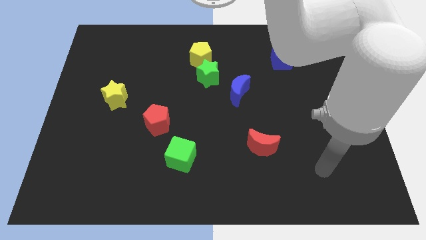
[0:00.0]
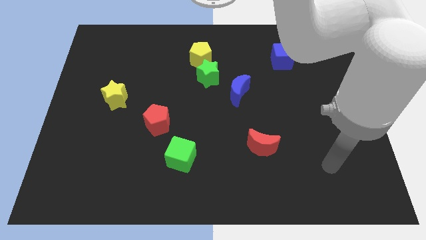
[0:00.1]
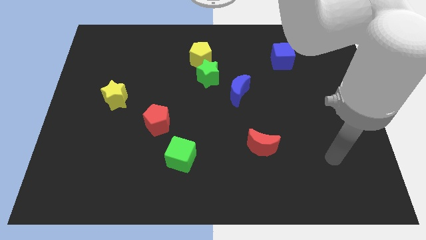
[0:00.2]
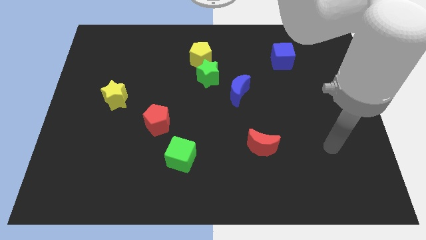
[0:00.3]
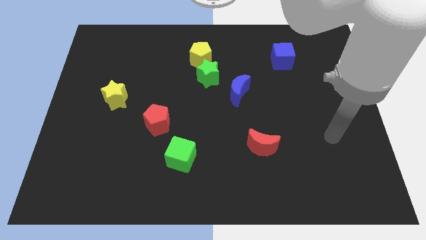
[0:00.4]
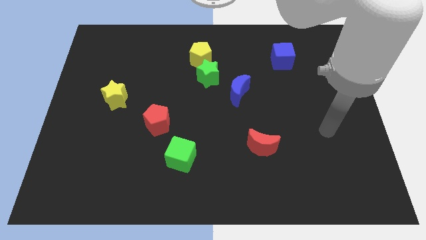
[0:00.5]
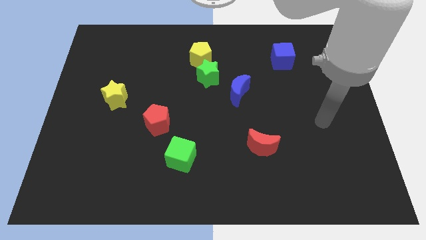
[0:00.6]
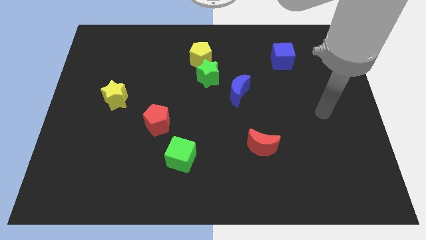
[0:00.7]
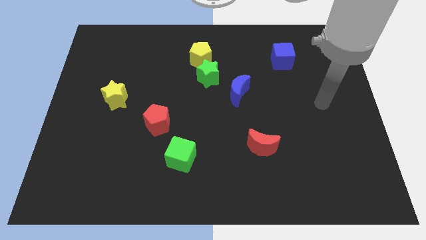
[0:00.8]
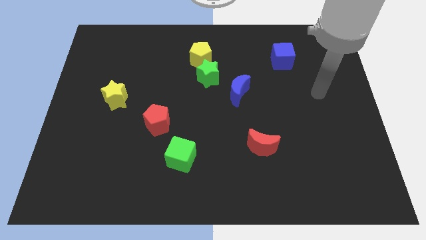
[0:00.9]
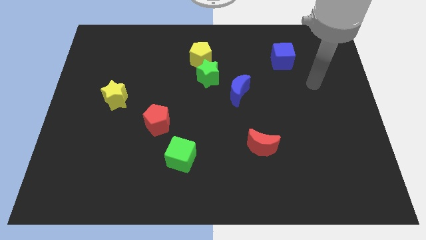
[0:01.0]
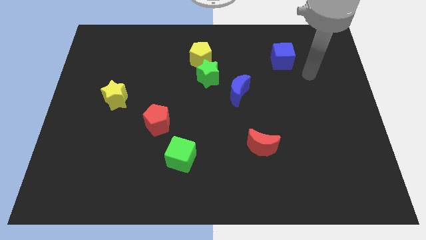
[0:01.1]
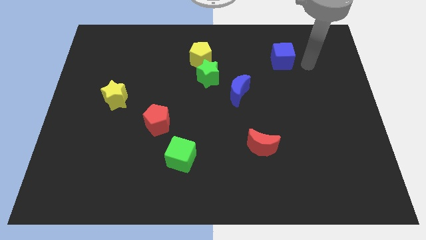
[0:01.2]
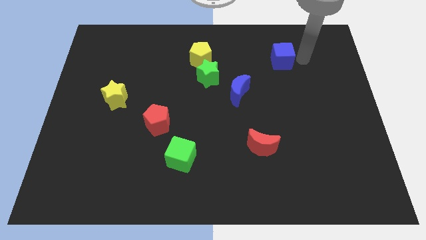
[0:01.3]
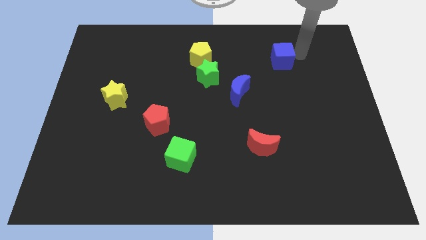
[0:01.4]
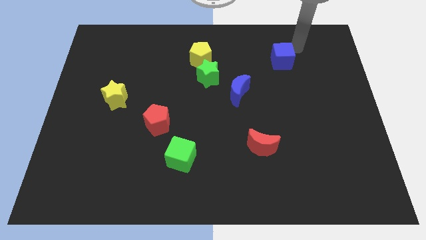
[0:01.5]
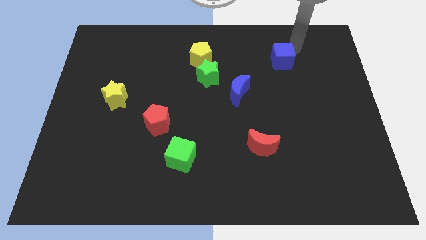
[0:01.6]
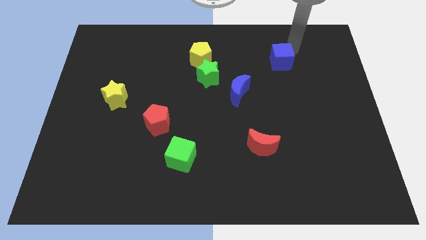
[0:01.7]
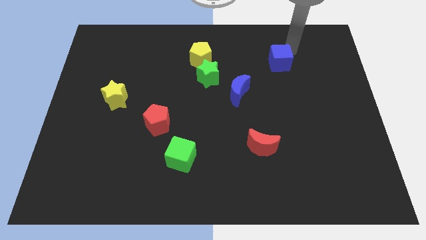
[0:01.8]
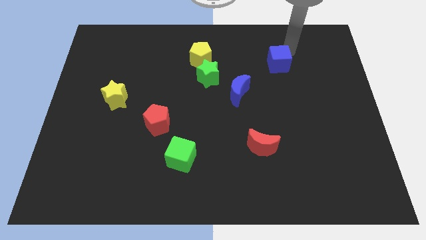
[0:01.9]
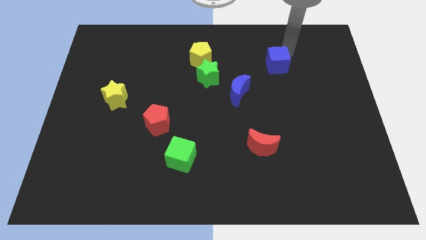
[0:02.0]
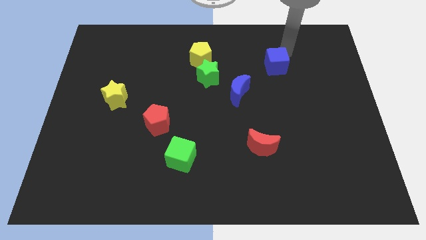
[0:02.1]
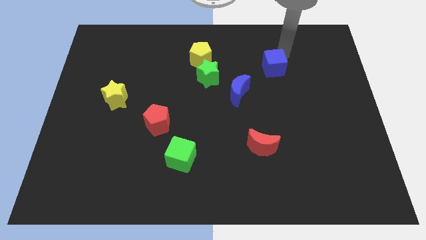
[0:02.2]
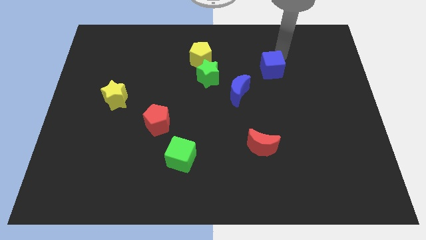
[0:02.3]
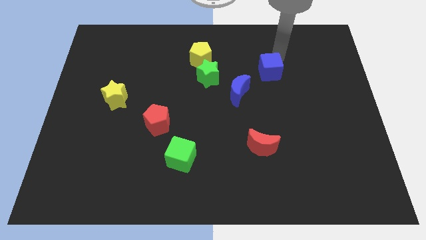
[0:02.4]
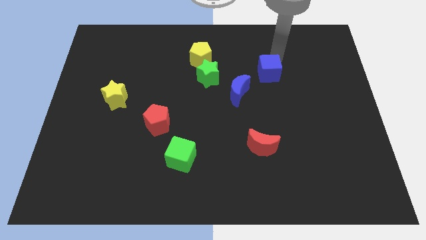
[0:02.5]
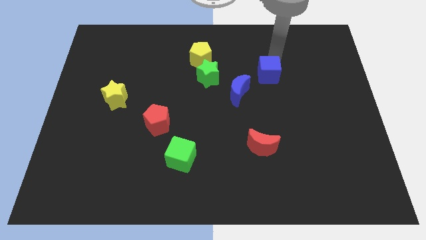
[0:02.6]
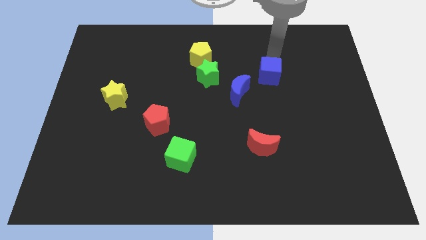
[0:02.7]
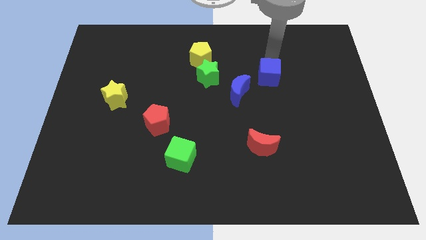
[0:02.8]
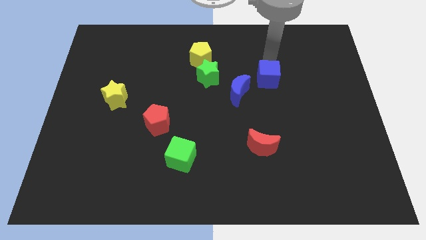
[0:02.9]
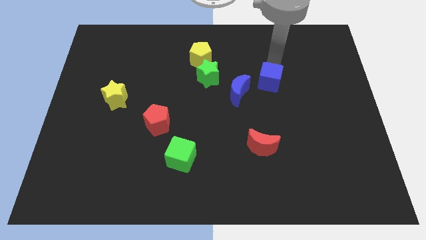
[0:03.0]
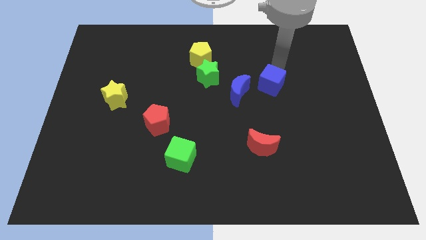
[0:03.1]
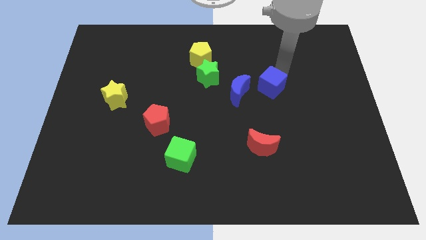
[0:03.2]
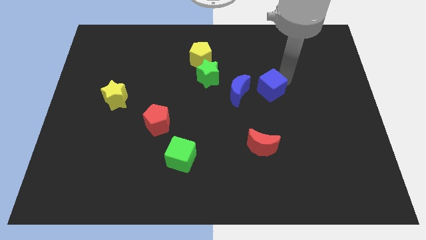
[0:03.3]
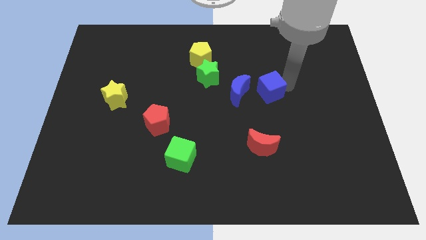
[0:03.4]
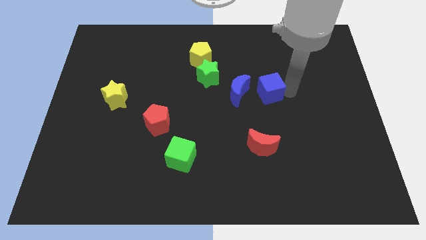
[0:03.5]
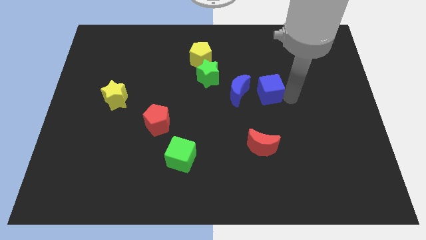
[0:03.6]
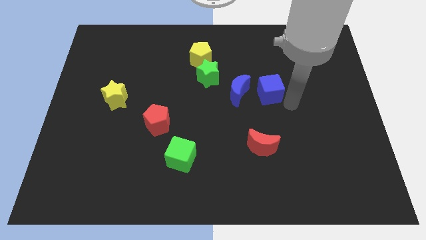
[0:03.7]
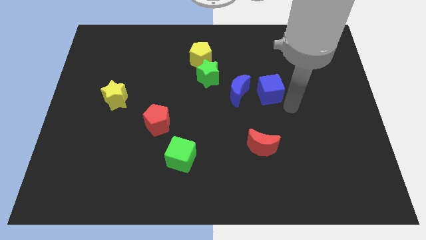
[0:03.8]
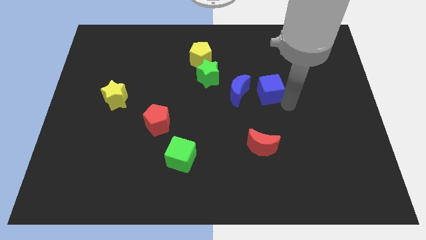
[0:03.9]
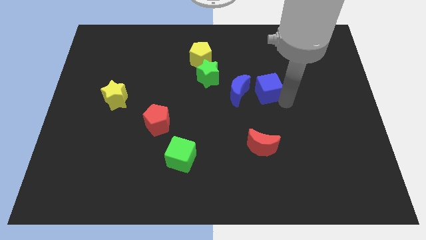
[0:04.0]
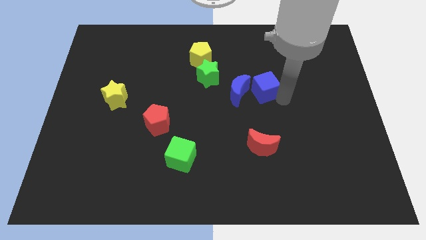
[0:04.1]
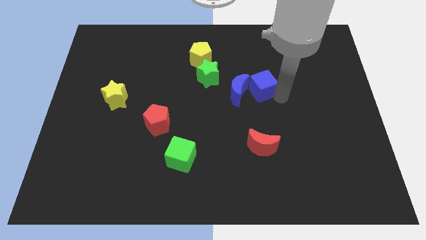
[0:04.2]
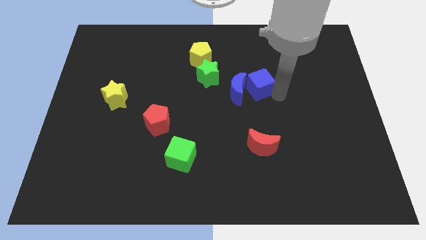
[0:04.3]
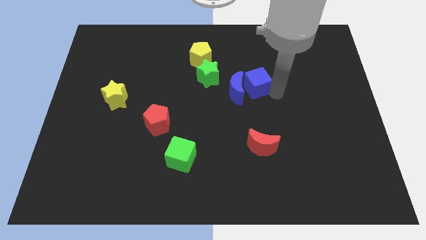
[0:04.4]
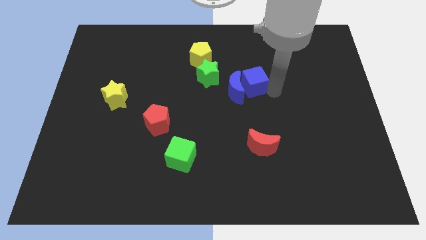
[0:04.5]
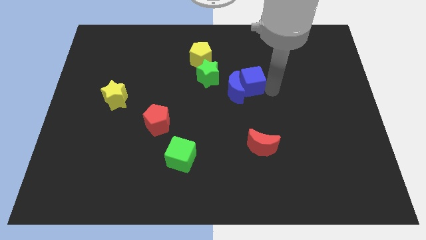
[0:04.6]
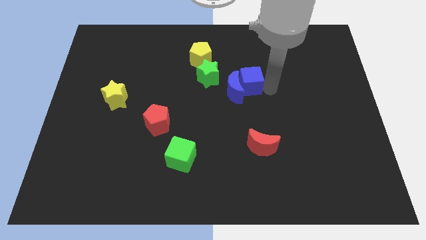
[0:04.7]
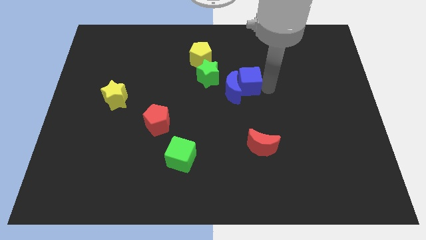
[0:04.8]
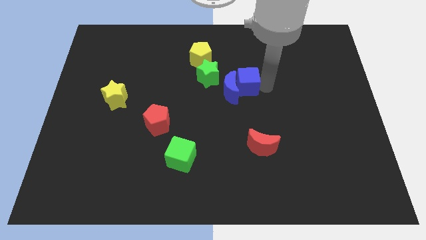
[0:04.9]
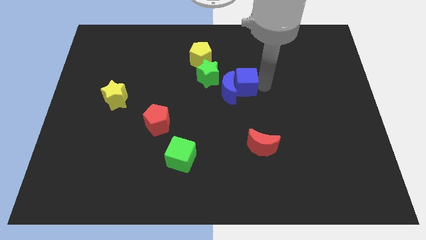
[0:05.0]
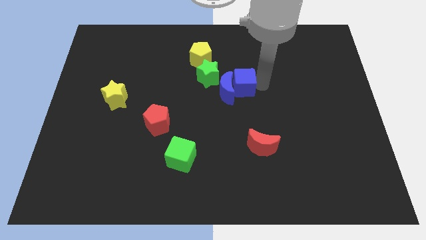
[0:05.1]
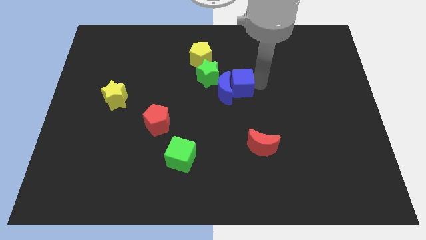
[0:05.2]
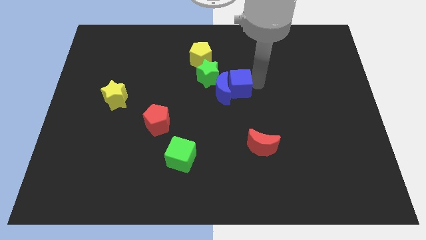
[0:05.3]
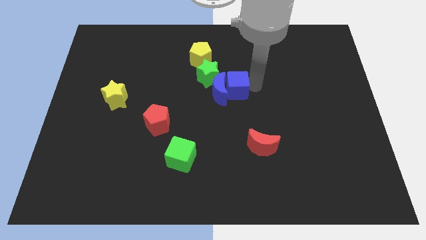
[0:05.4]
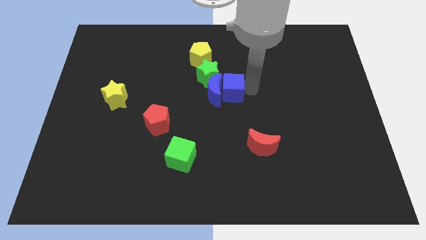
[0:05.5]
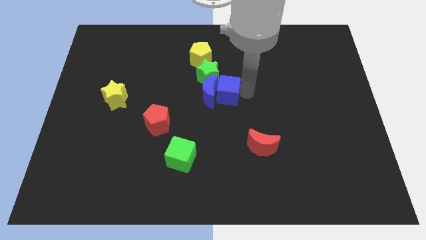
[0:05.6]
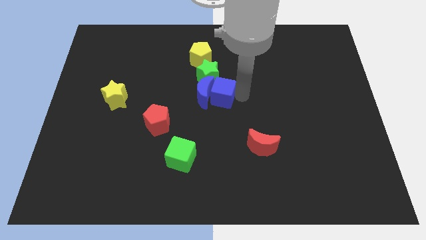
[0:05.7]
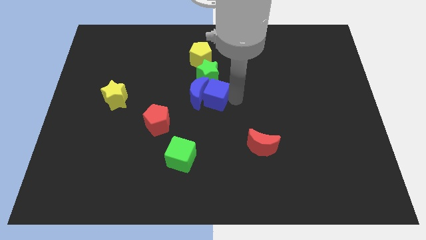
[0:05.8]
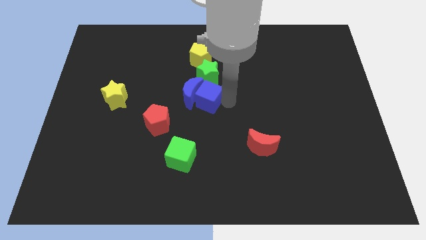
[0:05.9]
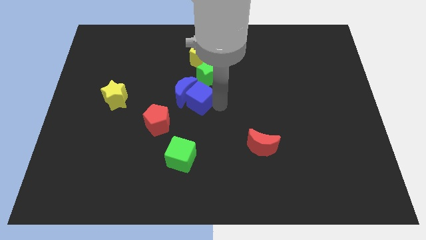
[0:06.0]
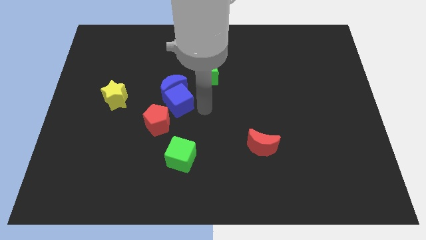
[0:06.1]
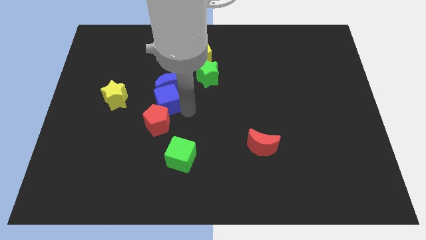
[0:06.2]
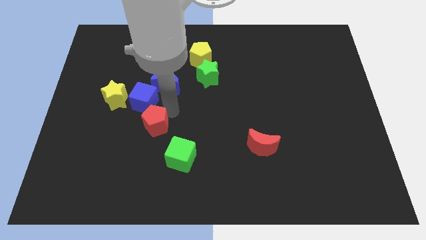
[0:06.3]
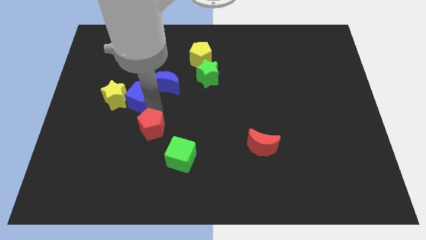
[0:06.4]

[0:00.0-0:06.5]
put the blue cube close to the yellow star

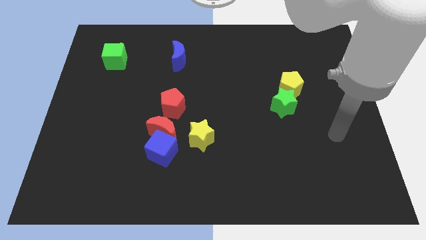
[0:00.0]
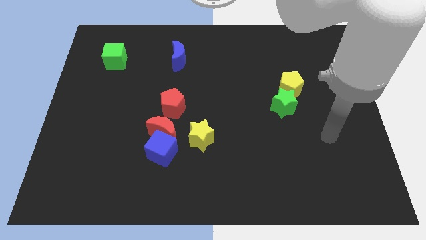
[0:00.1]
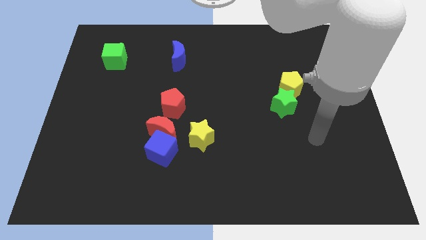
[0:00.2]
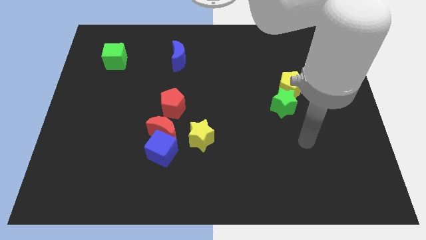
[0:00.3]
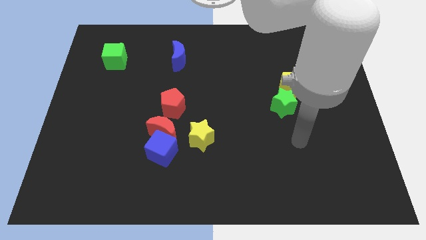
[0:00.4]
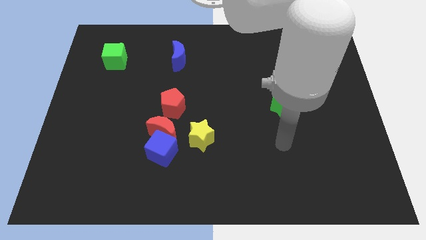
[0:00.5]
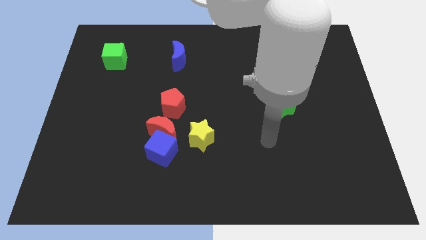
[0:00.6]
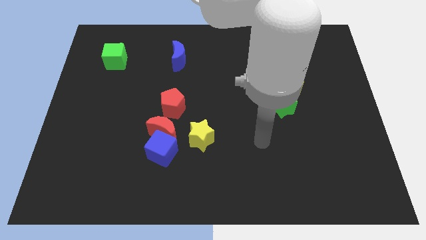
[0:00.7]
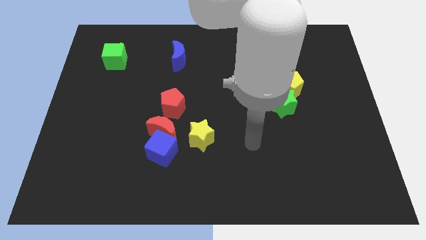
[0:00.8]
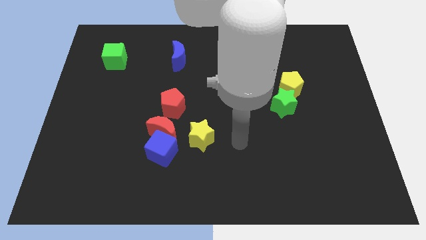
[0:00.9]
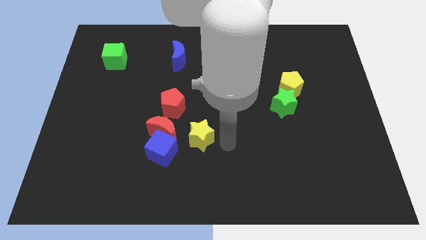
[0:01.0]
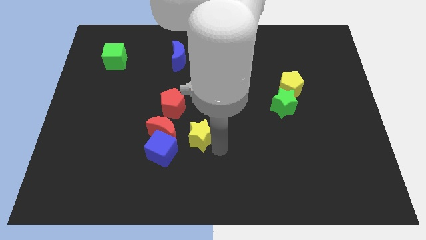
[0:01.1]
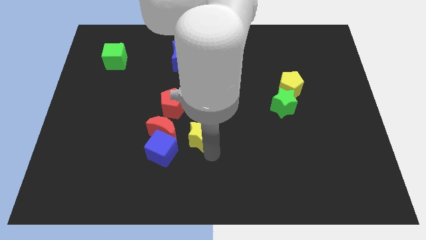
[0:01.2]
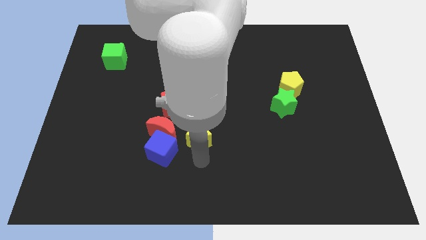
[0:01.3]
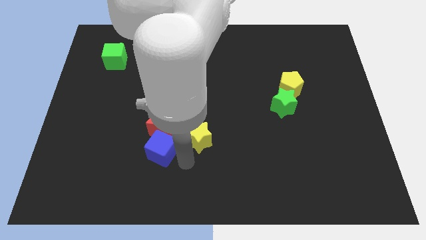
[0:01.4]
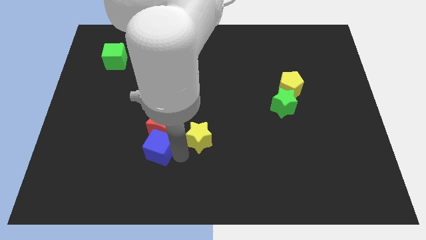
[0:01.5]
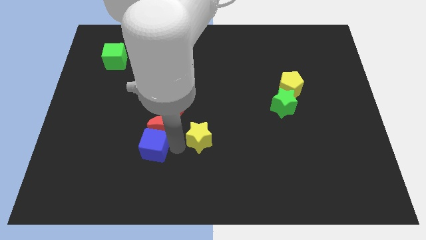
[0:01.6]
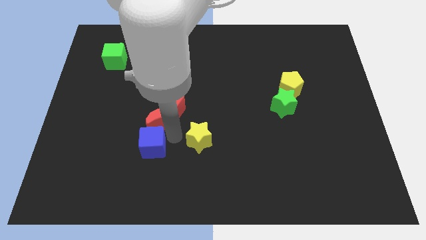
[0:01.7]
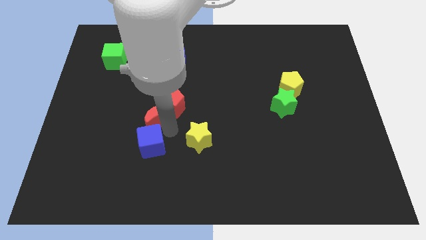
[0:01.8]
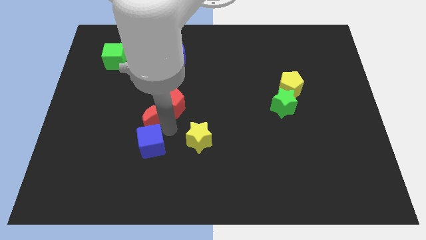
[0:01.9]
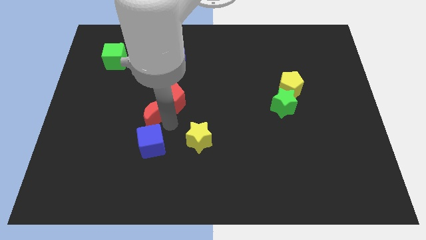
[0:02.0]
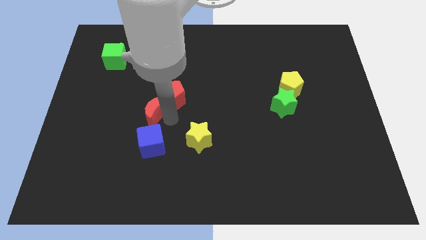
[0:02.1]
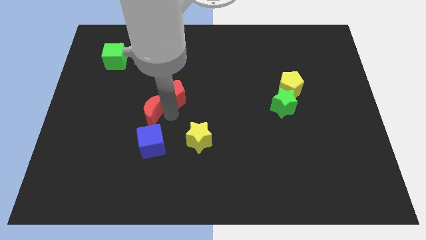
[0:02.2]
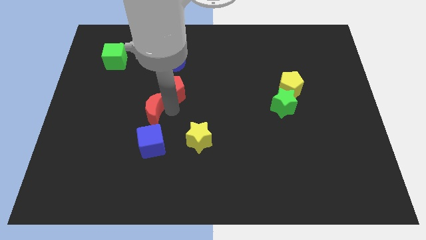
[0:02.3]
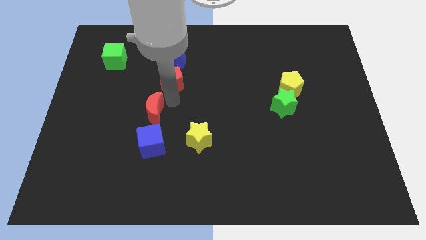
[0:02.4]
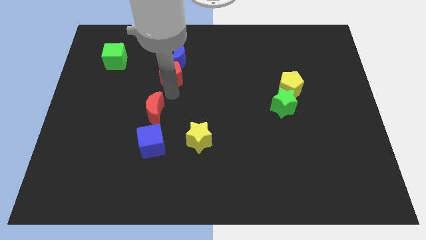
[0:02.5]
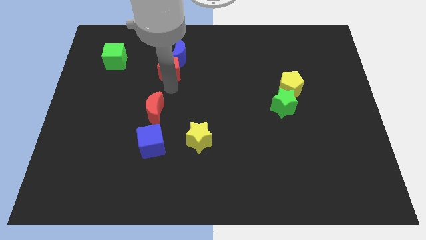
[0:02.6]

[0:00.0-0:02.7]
slide the red pentagon towards the blue moon
